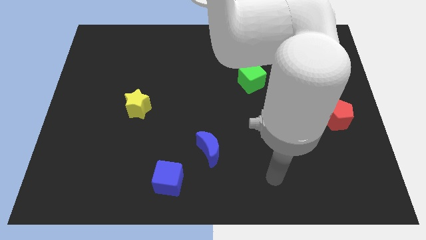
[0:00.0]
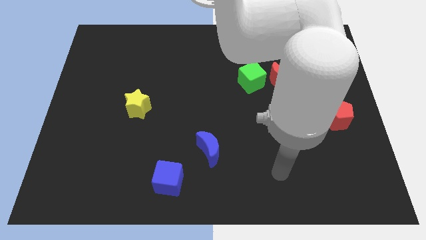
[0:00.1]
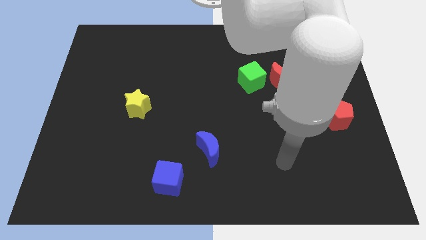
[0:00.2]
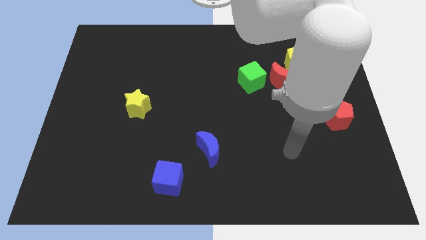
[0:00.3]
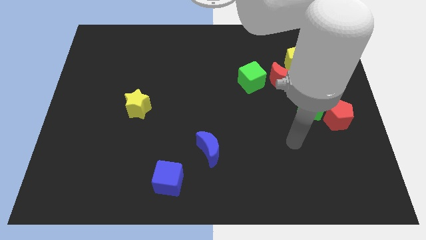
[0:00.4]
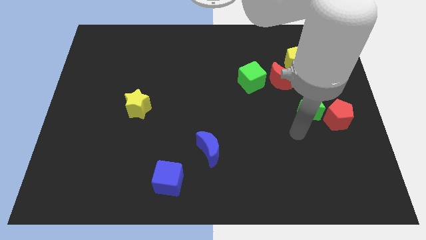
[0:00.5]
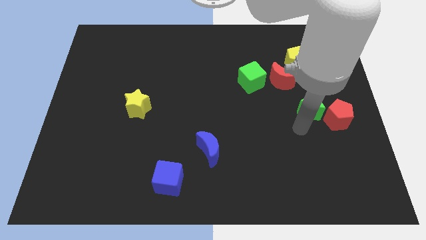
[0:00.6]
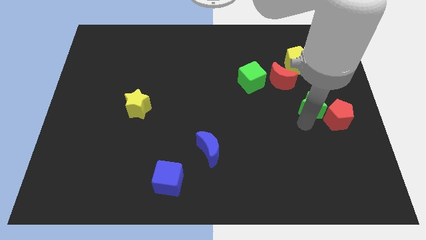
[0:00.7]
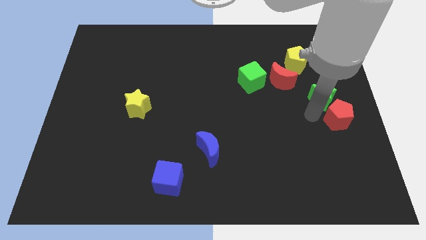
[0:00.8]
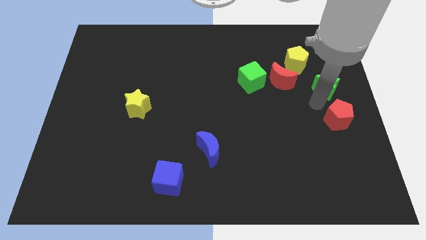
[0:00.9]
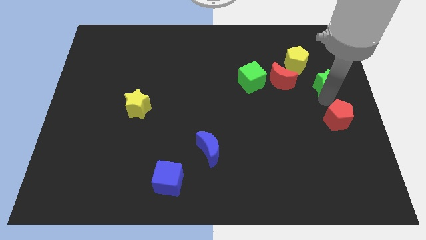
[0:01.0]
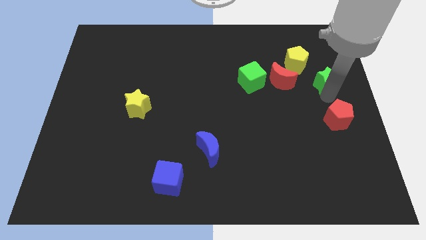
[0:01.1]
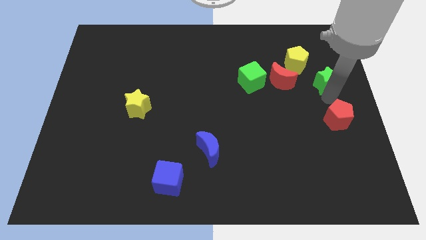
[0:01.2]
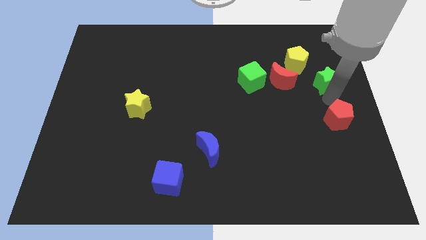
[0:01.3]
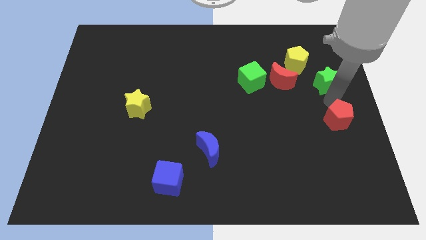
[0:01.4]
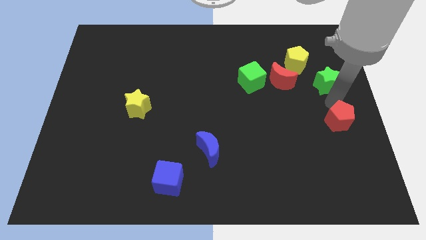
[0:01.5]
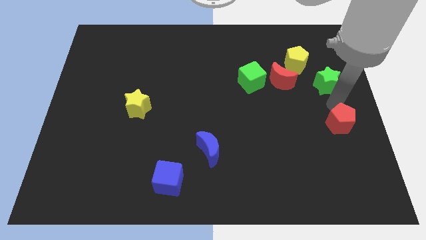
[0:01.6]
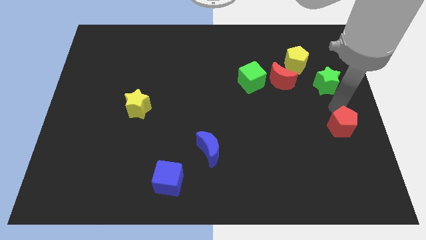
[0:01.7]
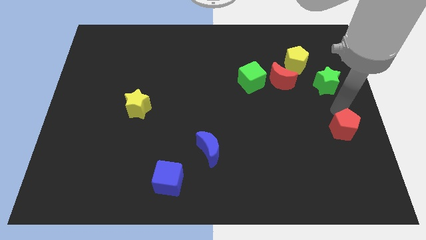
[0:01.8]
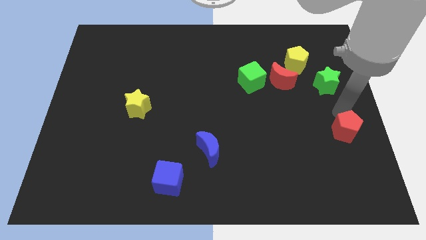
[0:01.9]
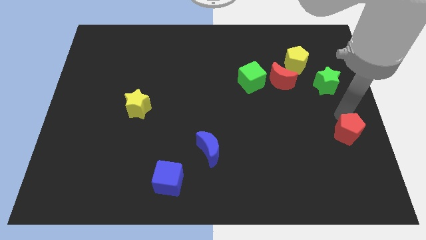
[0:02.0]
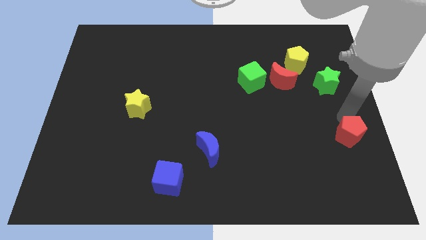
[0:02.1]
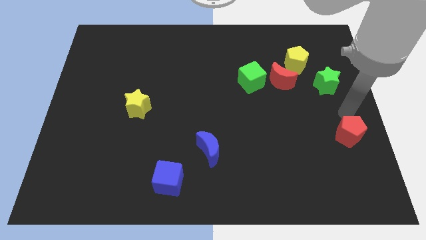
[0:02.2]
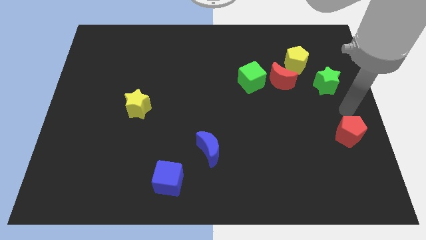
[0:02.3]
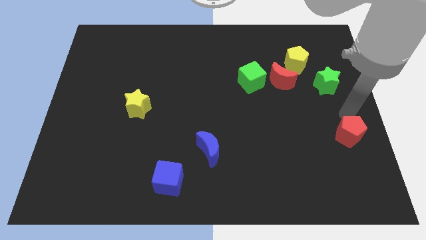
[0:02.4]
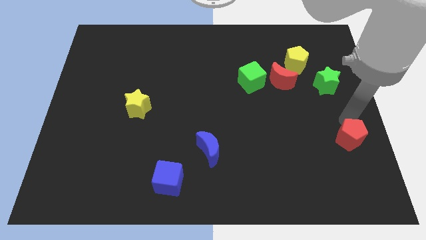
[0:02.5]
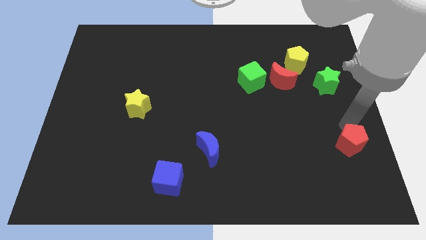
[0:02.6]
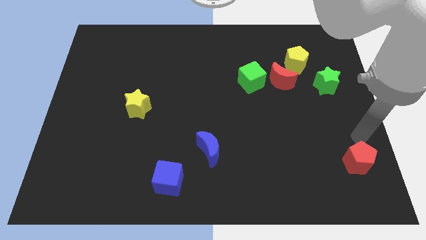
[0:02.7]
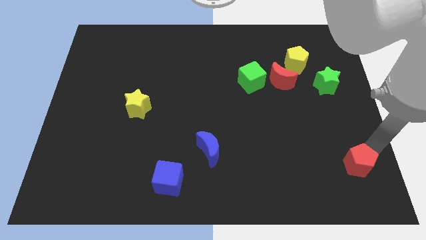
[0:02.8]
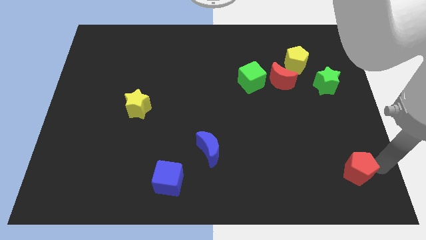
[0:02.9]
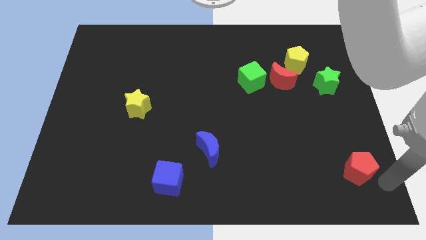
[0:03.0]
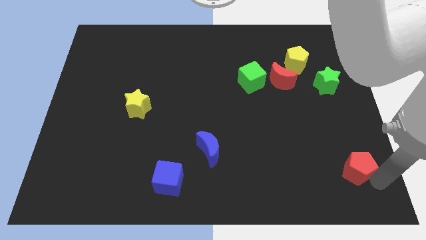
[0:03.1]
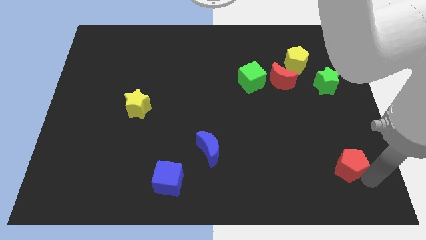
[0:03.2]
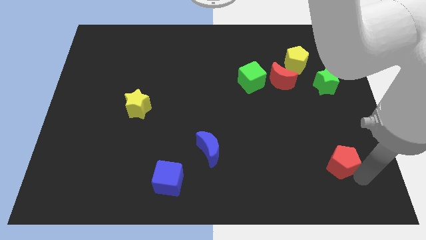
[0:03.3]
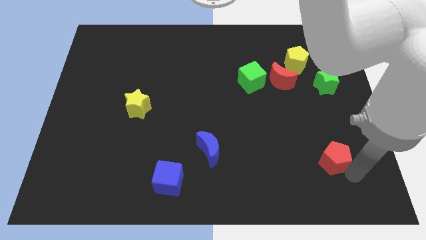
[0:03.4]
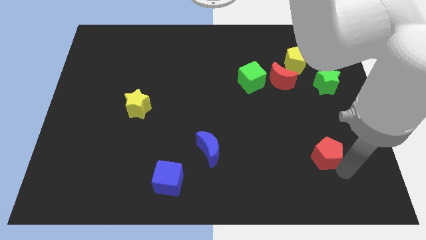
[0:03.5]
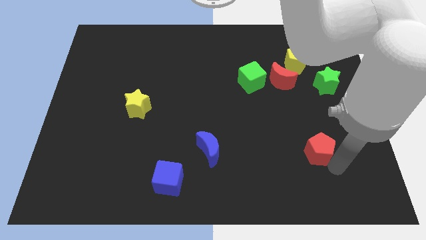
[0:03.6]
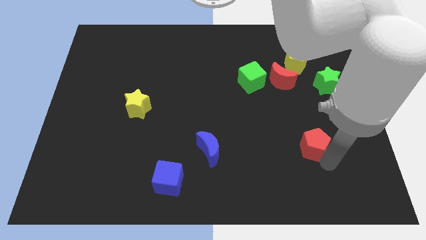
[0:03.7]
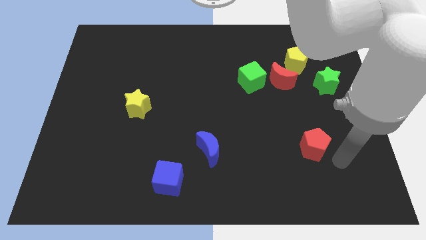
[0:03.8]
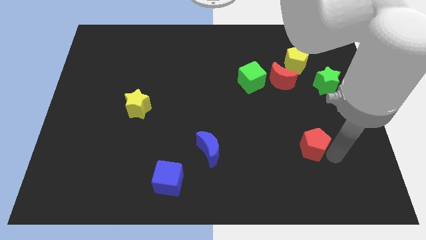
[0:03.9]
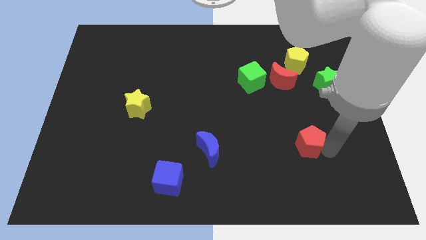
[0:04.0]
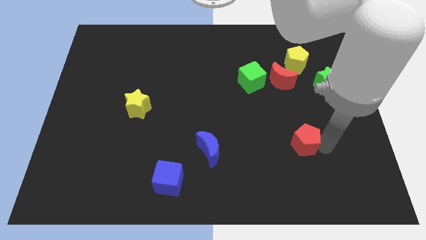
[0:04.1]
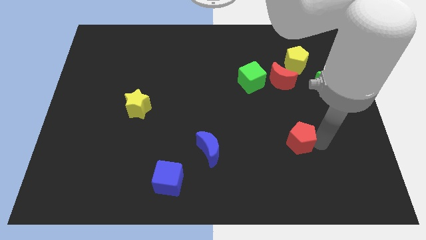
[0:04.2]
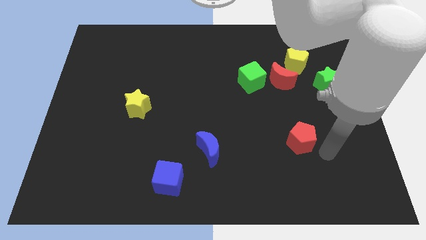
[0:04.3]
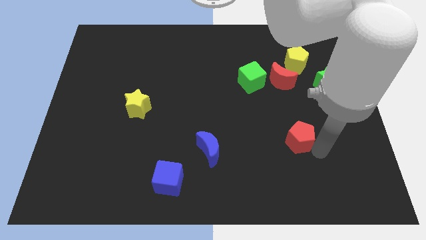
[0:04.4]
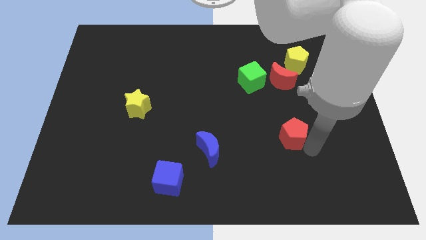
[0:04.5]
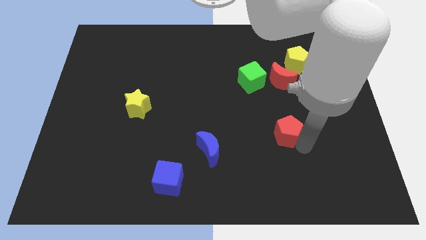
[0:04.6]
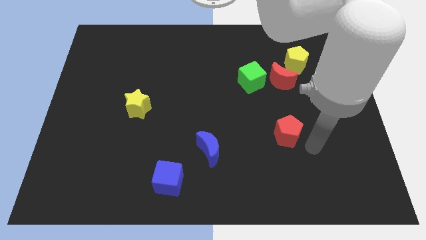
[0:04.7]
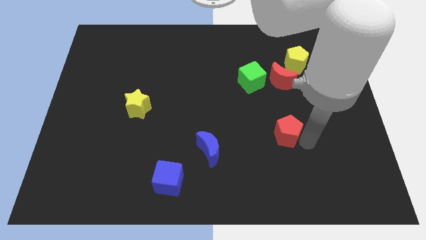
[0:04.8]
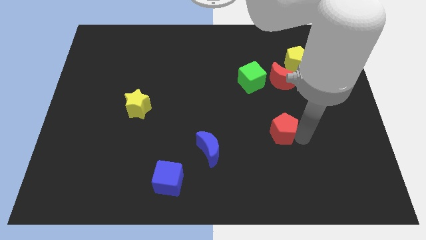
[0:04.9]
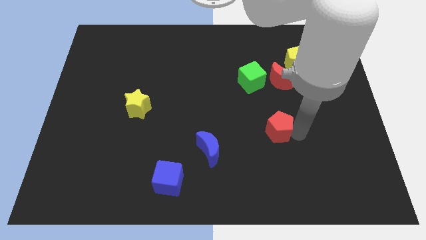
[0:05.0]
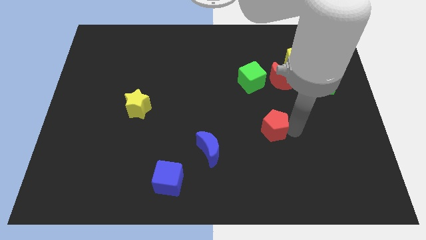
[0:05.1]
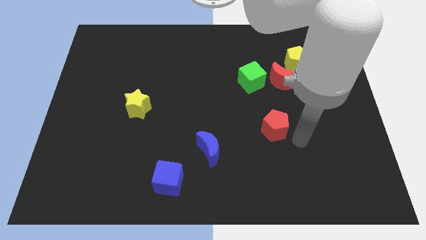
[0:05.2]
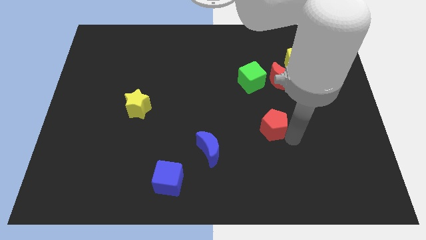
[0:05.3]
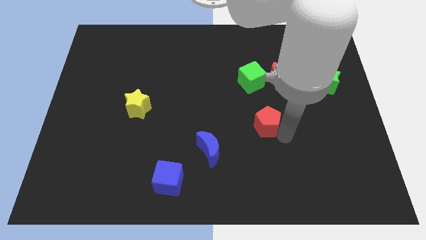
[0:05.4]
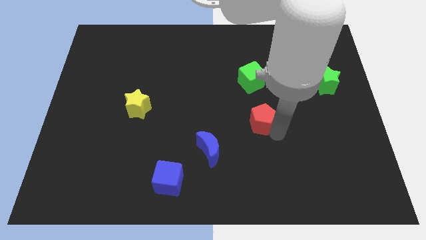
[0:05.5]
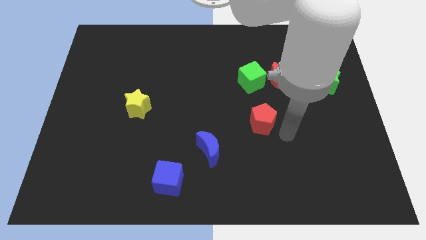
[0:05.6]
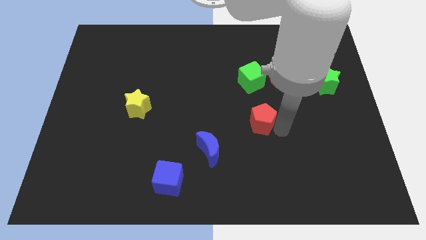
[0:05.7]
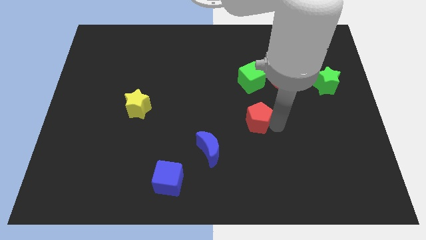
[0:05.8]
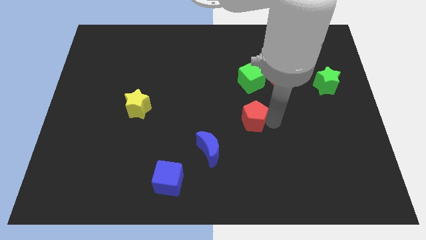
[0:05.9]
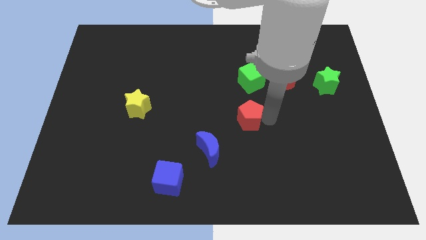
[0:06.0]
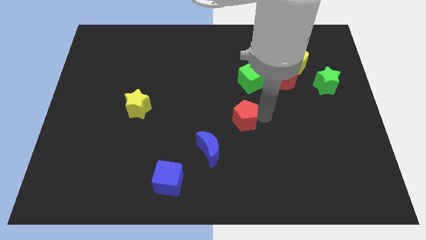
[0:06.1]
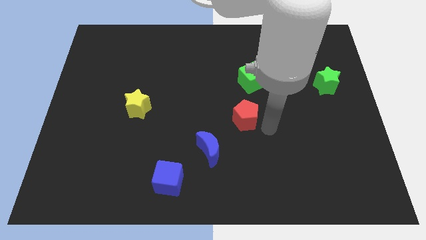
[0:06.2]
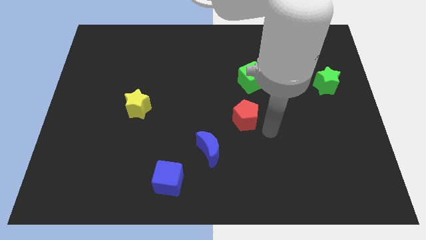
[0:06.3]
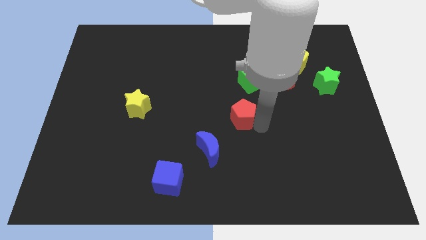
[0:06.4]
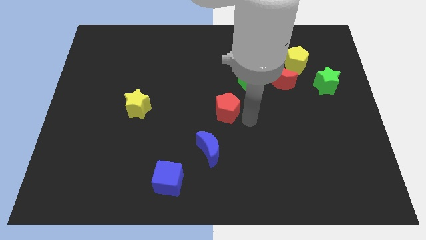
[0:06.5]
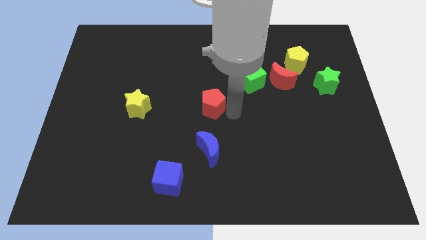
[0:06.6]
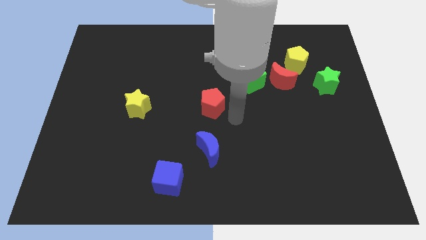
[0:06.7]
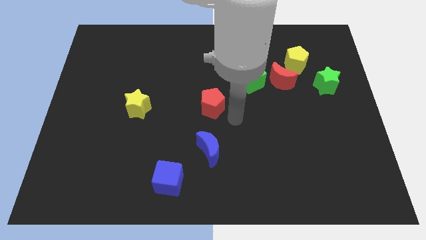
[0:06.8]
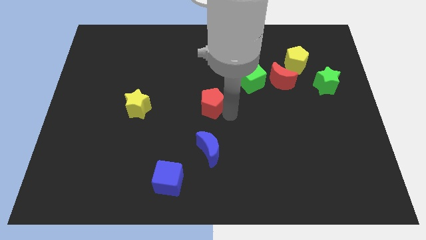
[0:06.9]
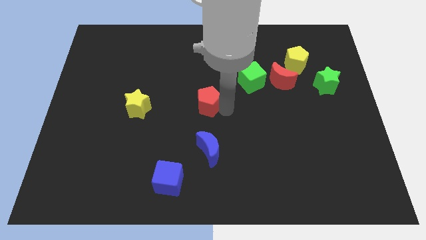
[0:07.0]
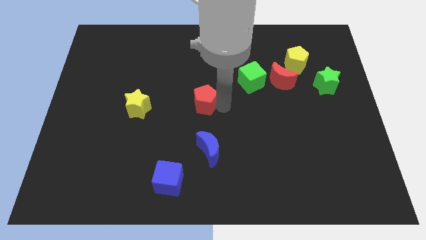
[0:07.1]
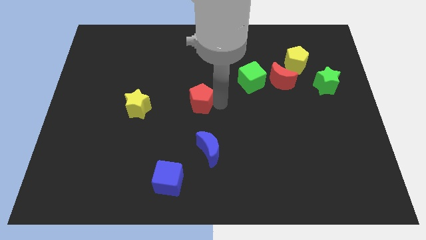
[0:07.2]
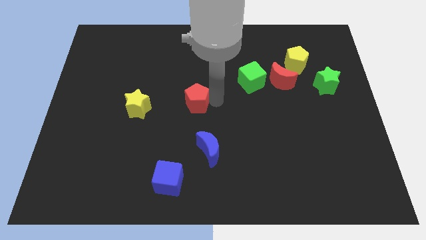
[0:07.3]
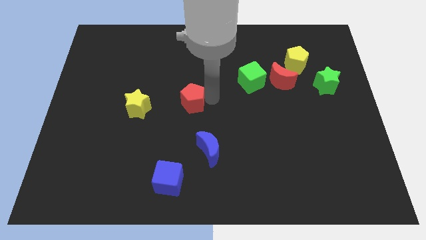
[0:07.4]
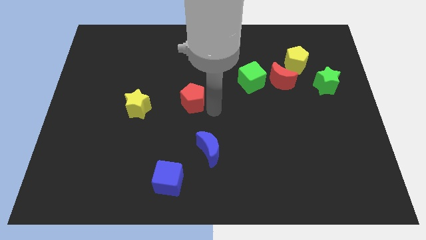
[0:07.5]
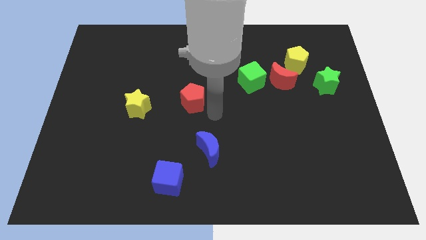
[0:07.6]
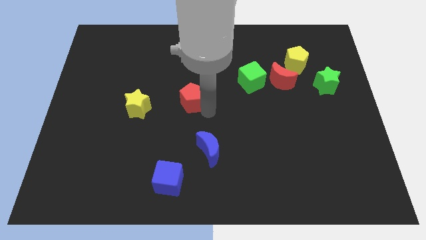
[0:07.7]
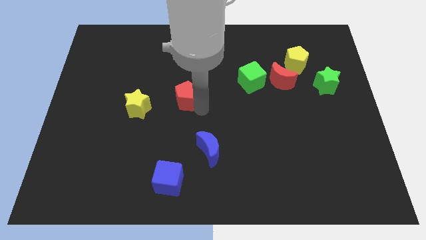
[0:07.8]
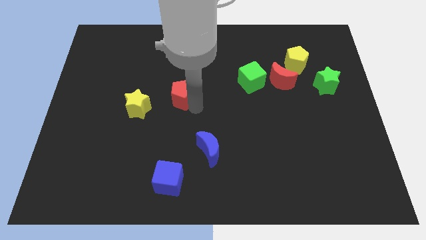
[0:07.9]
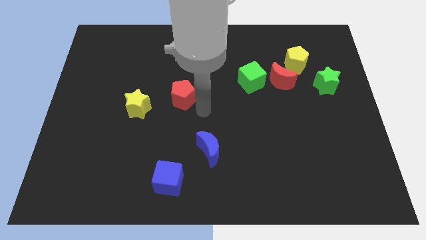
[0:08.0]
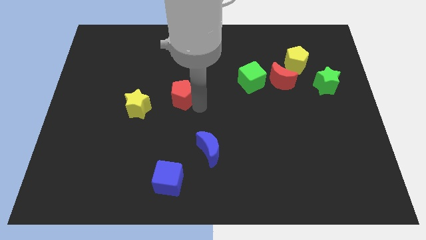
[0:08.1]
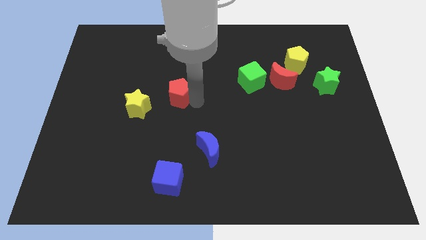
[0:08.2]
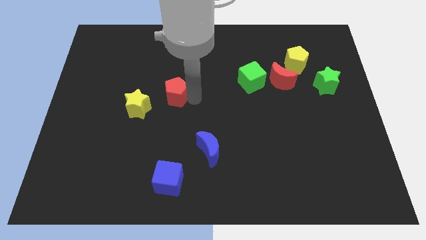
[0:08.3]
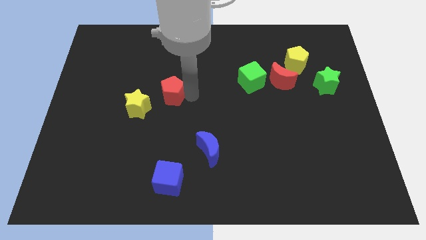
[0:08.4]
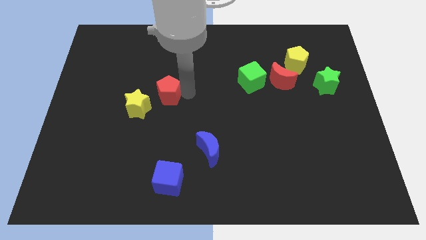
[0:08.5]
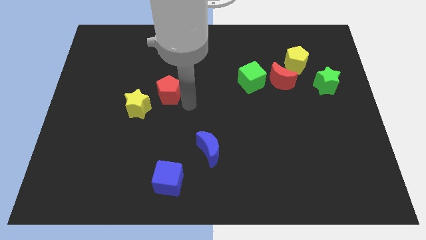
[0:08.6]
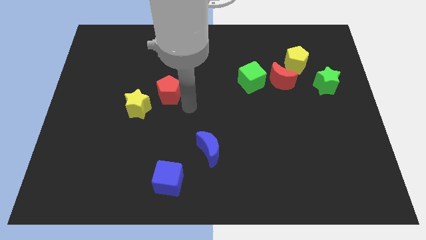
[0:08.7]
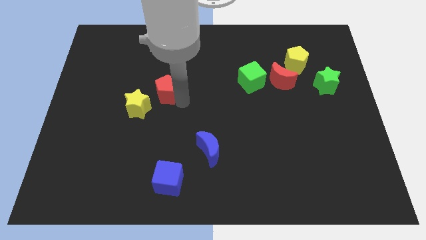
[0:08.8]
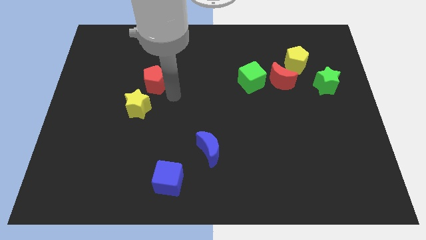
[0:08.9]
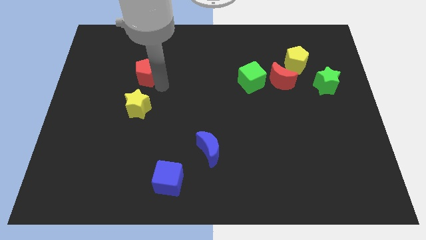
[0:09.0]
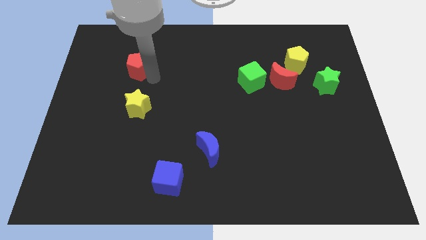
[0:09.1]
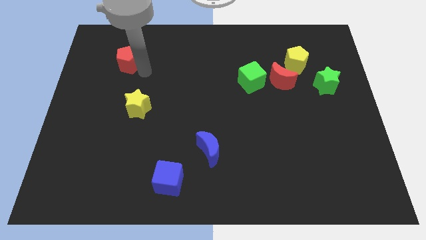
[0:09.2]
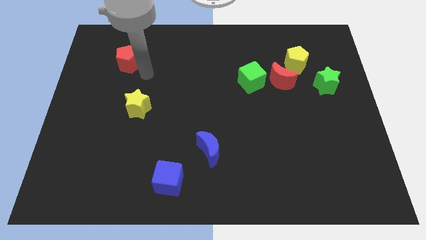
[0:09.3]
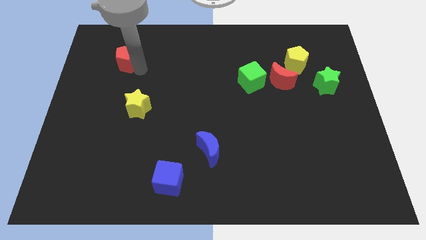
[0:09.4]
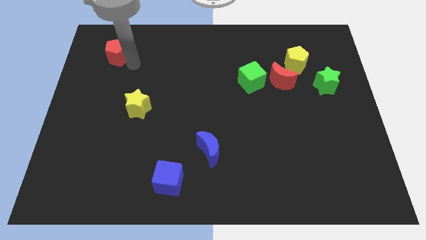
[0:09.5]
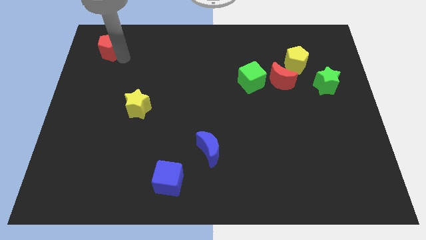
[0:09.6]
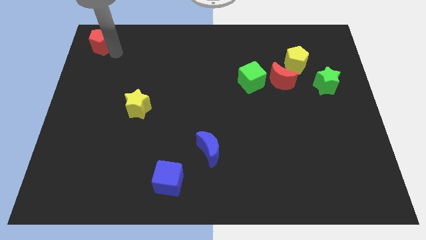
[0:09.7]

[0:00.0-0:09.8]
put the red pentagon to the upper left corner
